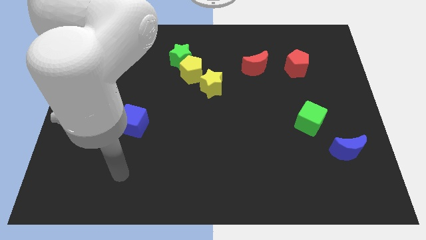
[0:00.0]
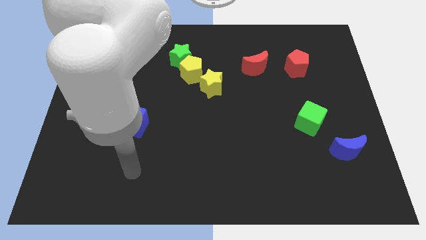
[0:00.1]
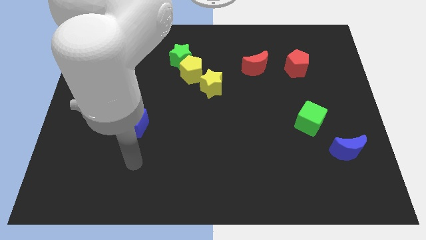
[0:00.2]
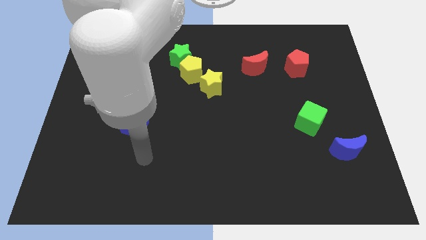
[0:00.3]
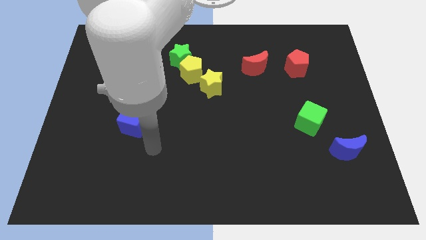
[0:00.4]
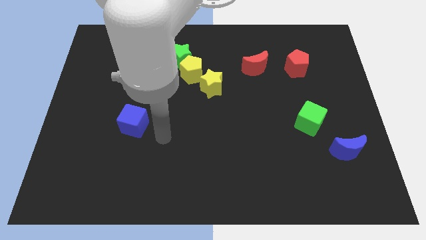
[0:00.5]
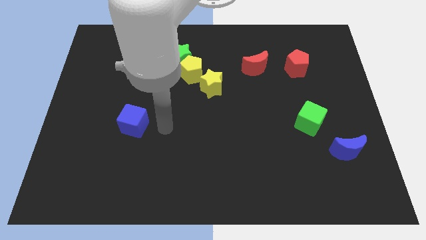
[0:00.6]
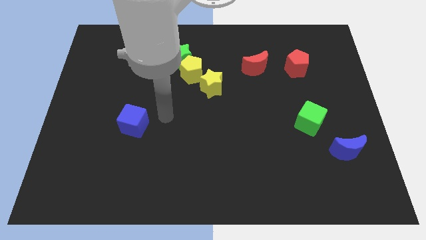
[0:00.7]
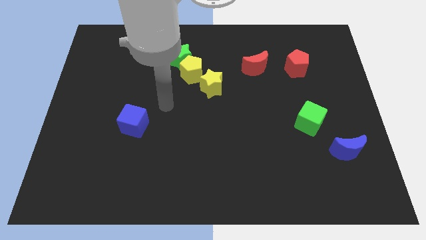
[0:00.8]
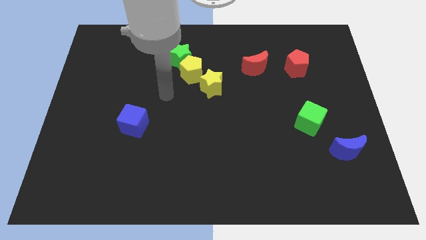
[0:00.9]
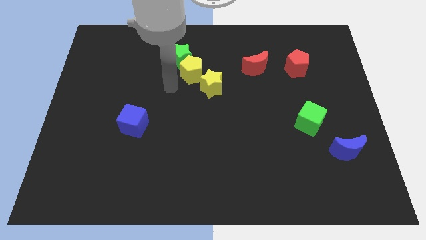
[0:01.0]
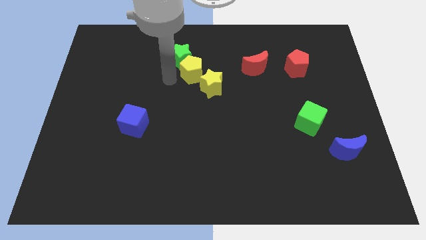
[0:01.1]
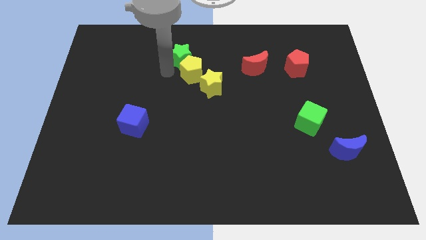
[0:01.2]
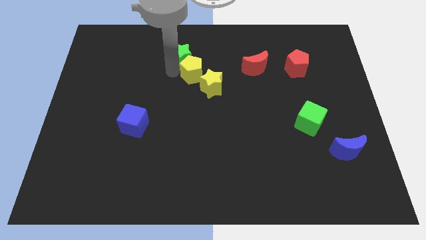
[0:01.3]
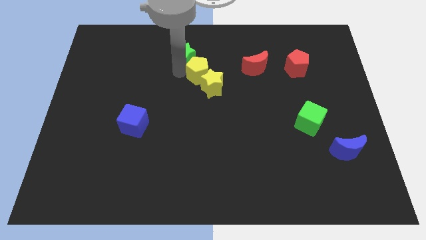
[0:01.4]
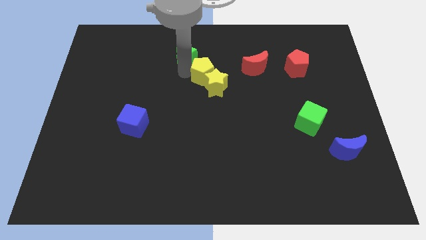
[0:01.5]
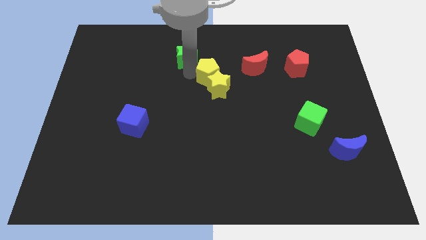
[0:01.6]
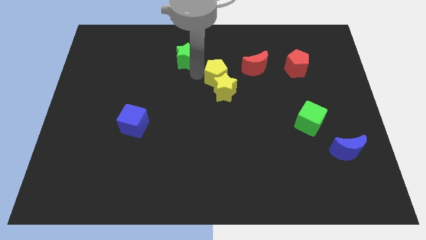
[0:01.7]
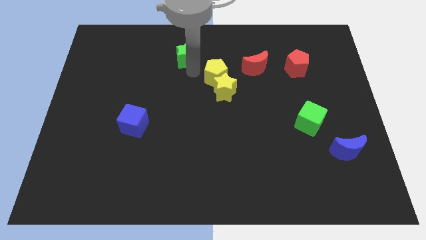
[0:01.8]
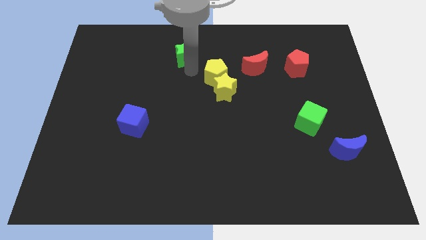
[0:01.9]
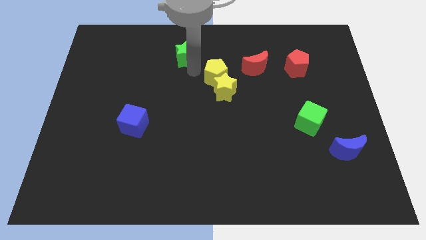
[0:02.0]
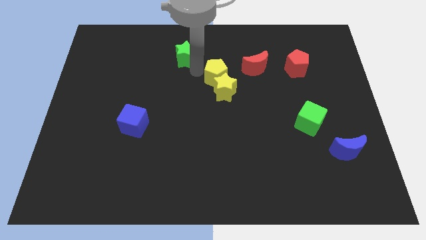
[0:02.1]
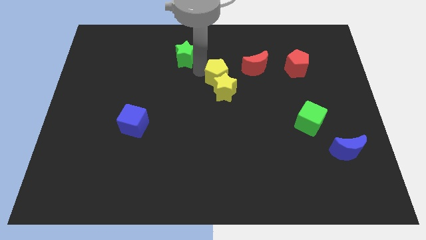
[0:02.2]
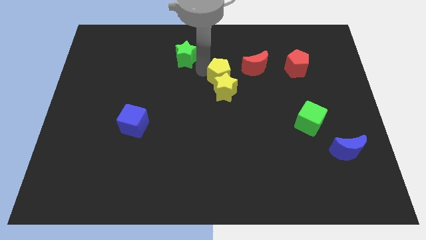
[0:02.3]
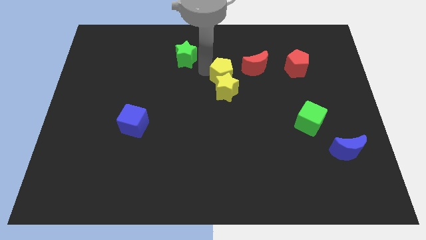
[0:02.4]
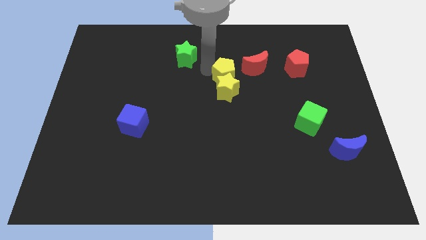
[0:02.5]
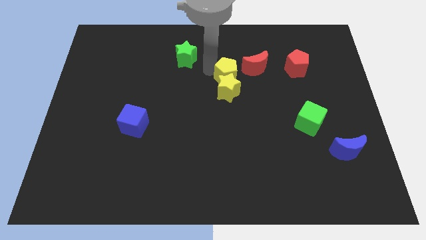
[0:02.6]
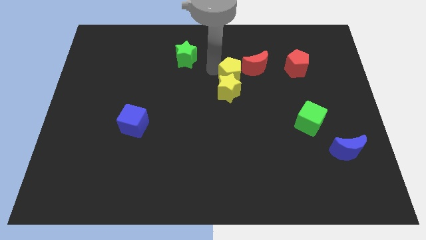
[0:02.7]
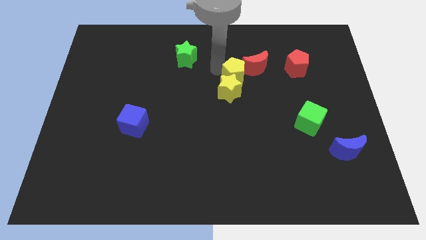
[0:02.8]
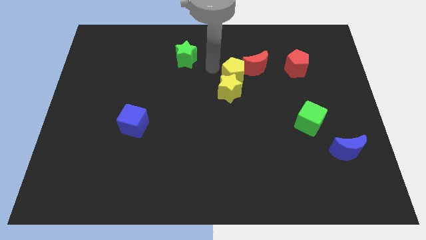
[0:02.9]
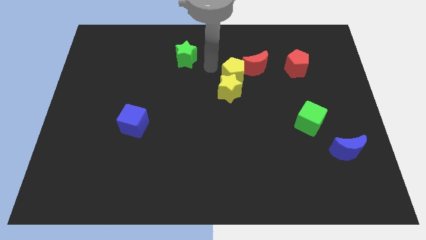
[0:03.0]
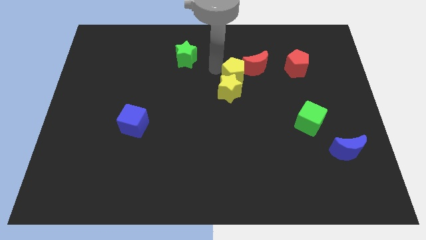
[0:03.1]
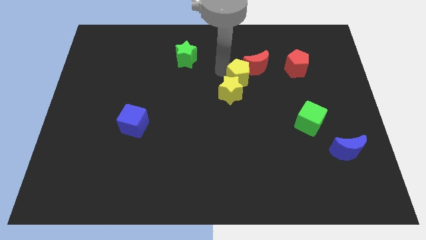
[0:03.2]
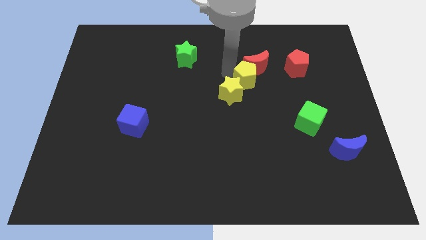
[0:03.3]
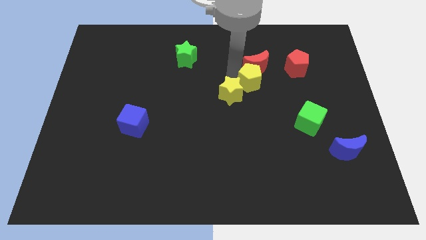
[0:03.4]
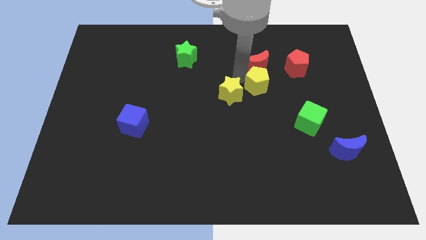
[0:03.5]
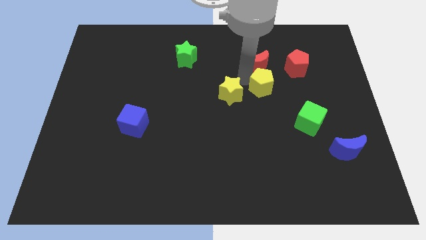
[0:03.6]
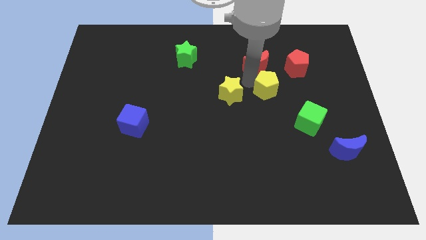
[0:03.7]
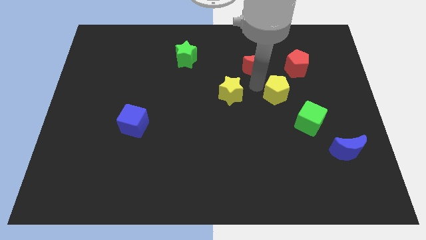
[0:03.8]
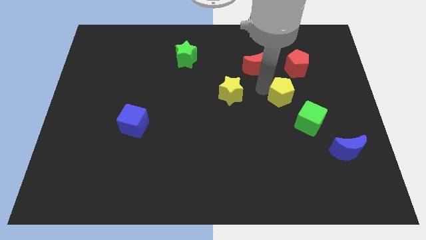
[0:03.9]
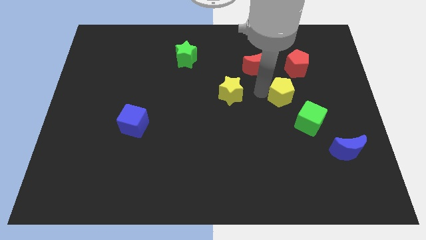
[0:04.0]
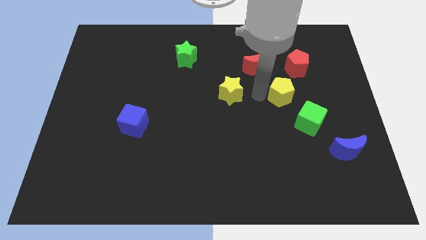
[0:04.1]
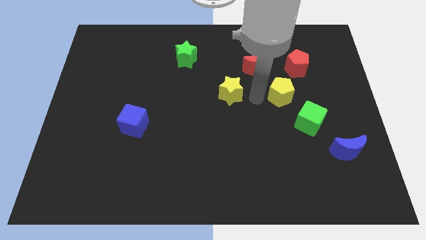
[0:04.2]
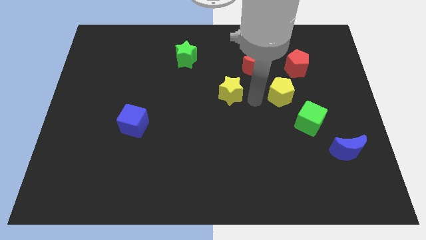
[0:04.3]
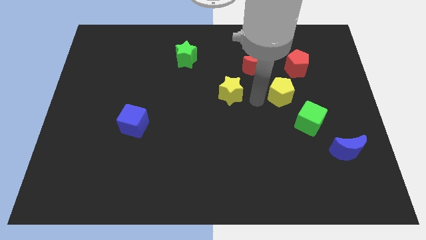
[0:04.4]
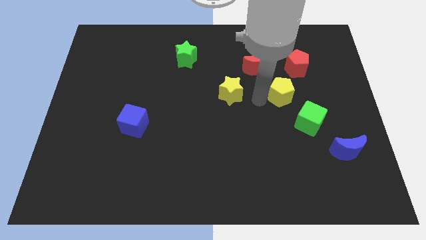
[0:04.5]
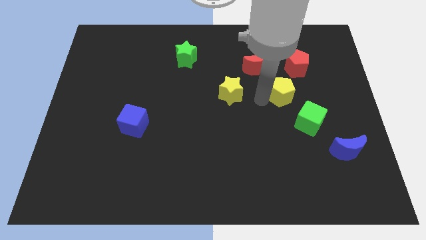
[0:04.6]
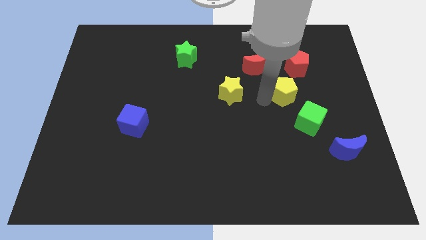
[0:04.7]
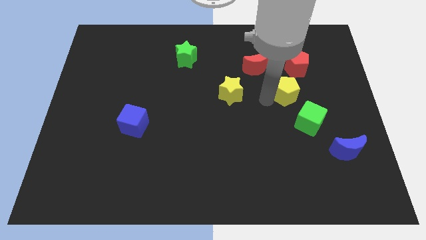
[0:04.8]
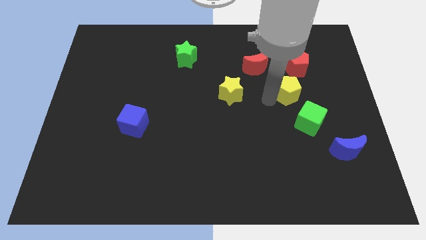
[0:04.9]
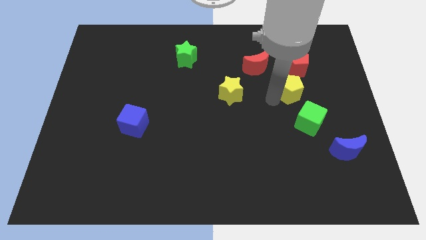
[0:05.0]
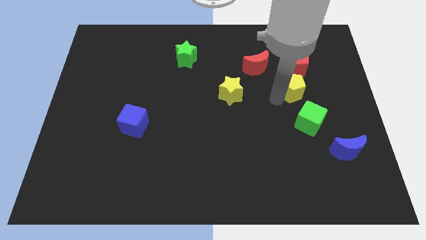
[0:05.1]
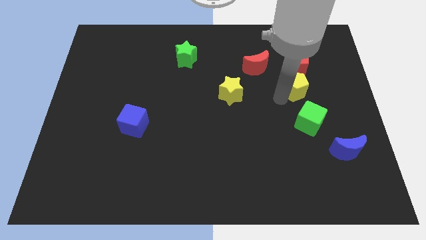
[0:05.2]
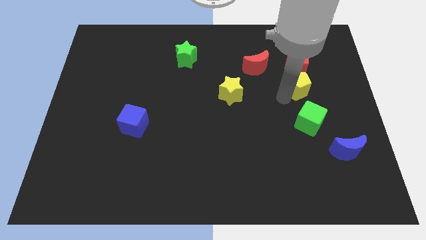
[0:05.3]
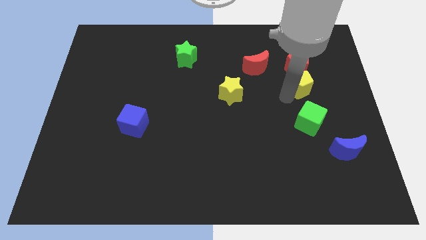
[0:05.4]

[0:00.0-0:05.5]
push the yellow pentagon to the bottom right side of the red pentagon

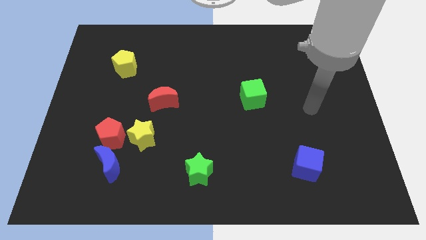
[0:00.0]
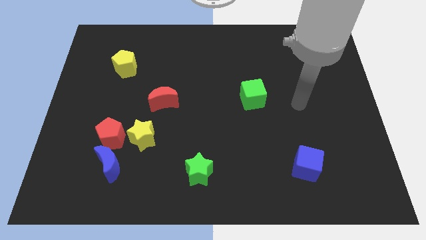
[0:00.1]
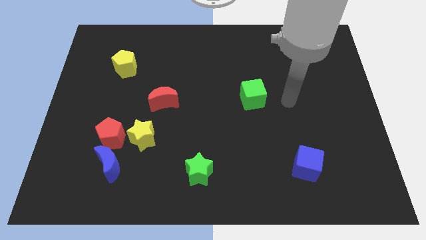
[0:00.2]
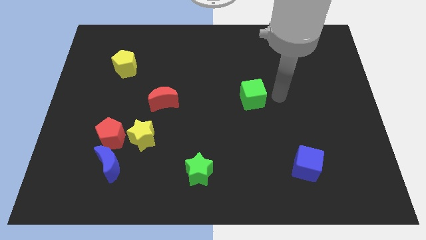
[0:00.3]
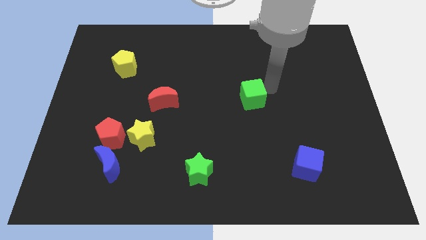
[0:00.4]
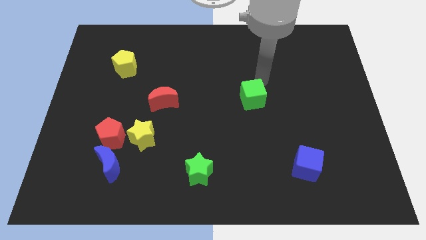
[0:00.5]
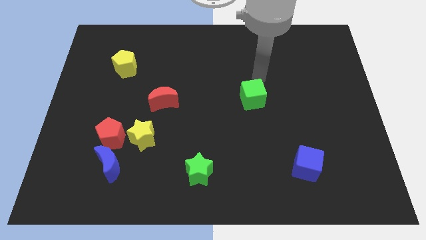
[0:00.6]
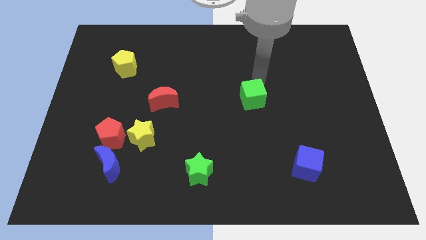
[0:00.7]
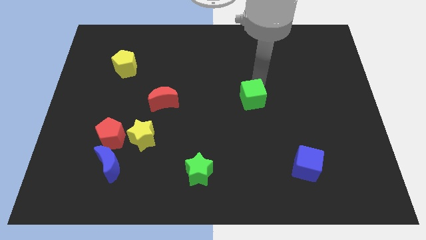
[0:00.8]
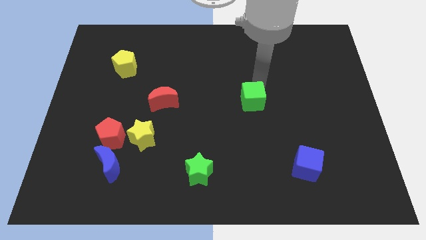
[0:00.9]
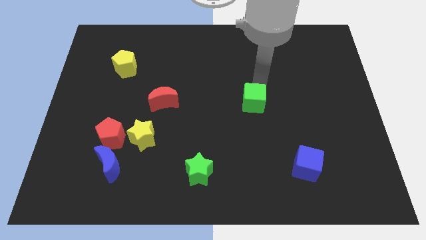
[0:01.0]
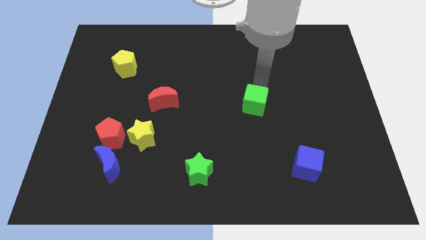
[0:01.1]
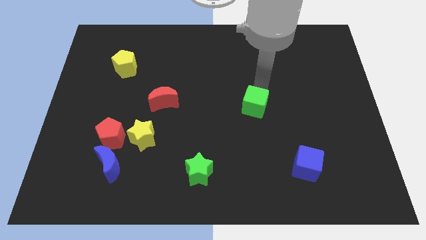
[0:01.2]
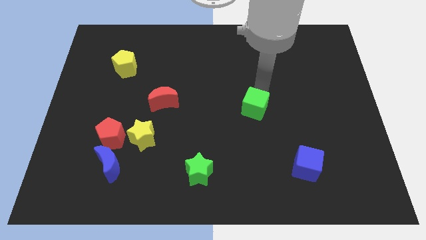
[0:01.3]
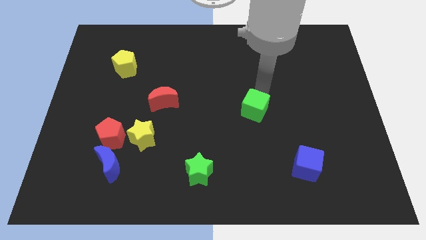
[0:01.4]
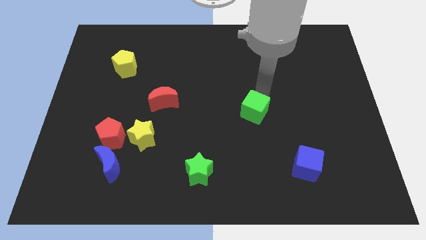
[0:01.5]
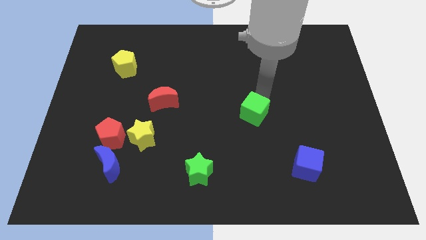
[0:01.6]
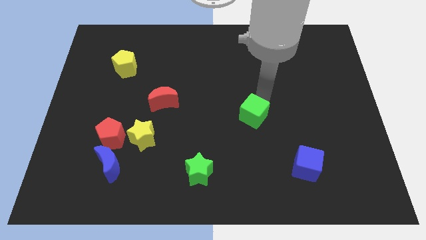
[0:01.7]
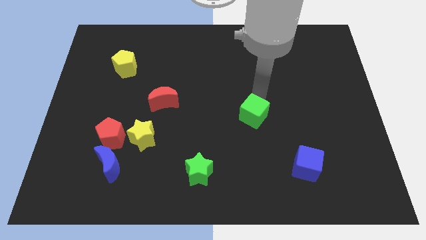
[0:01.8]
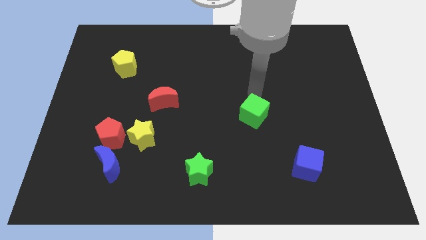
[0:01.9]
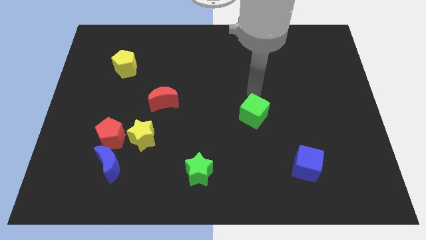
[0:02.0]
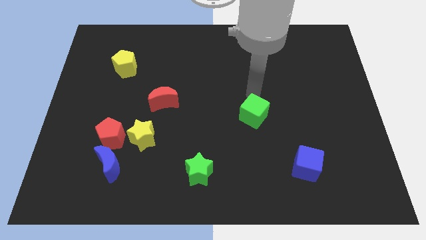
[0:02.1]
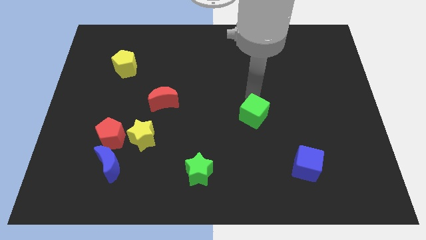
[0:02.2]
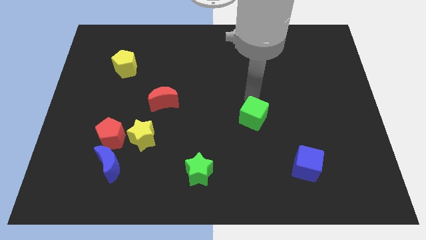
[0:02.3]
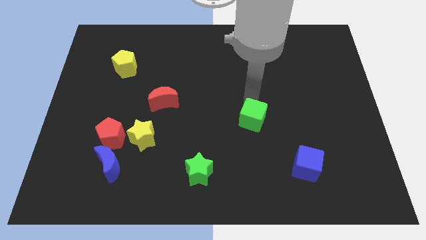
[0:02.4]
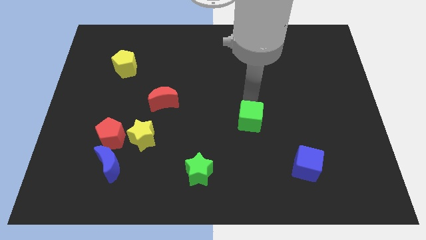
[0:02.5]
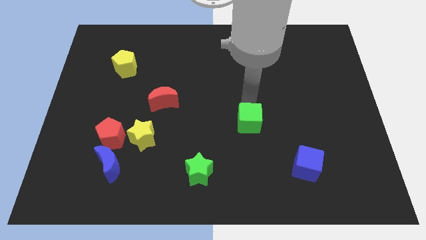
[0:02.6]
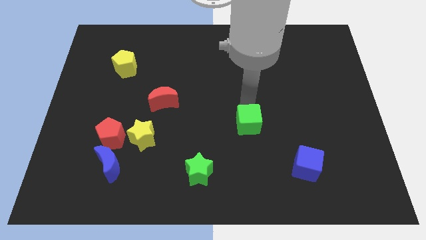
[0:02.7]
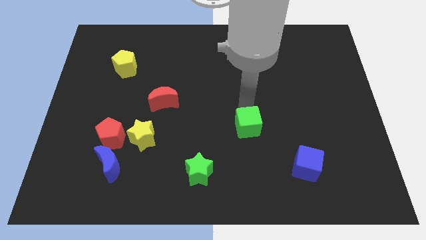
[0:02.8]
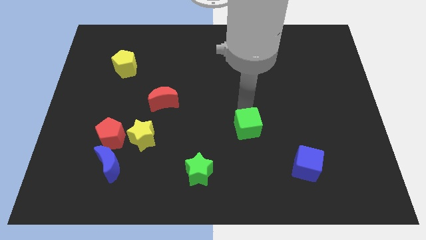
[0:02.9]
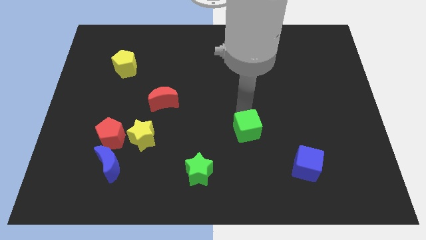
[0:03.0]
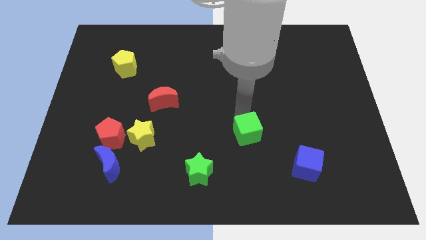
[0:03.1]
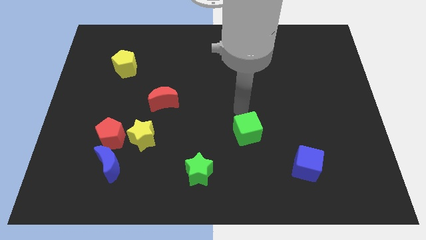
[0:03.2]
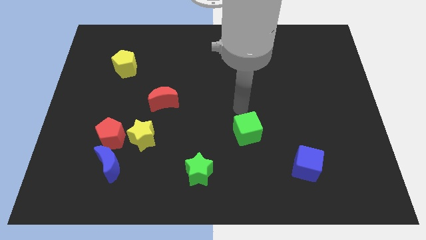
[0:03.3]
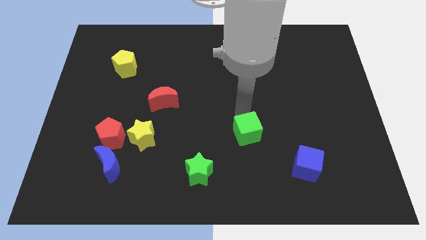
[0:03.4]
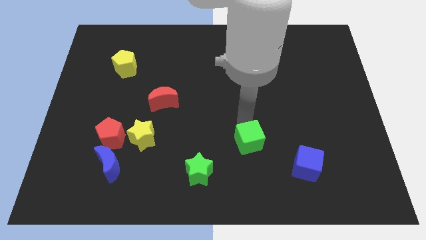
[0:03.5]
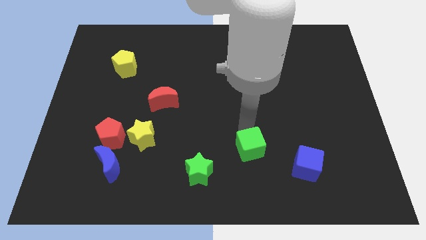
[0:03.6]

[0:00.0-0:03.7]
slide the green cube to the left side of the blue cube
